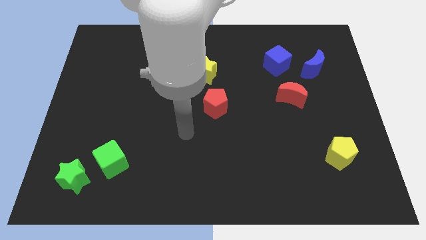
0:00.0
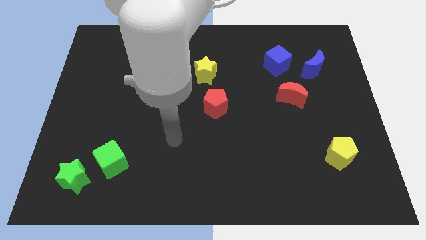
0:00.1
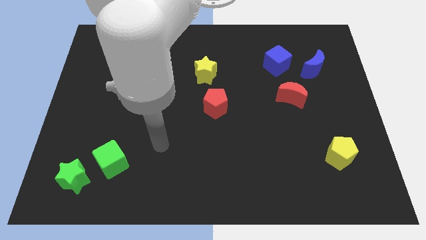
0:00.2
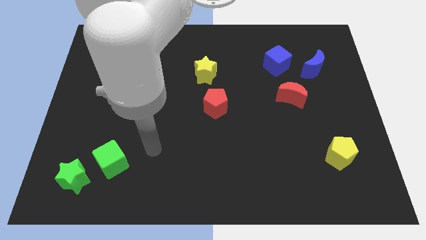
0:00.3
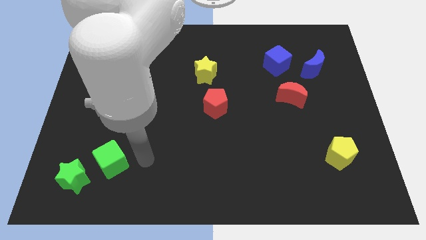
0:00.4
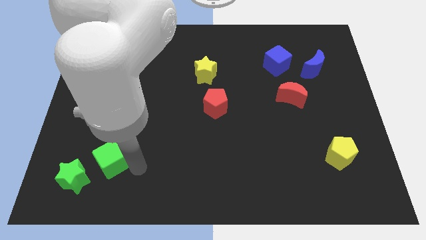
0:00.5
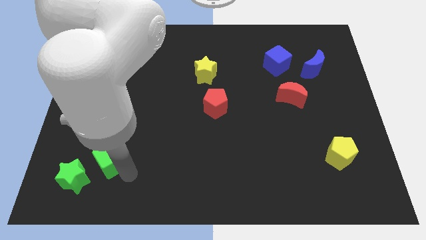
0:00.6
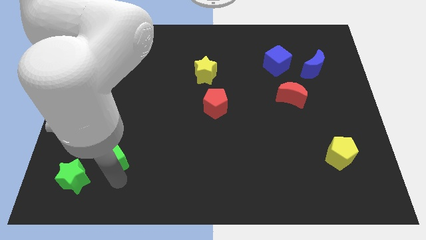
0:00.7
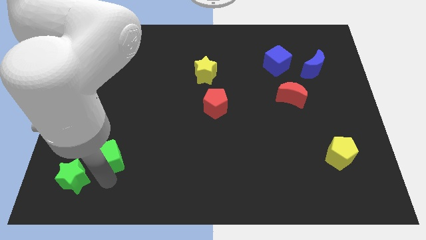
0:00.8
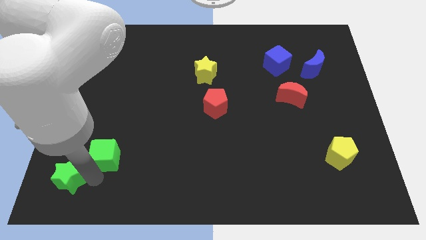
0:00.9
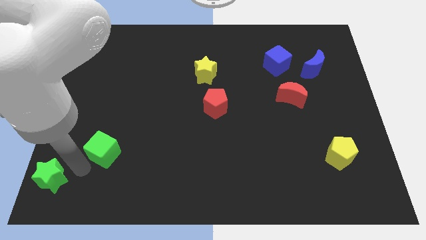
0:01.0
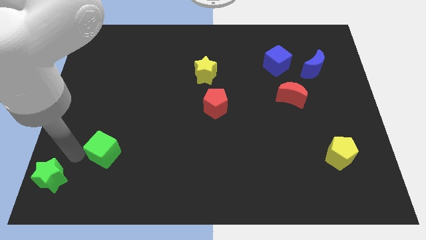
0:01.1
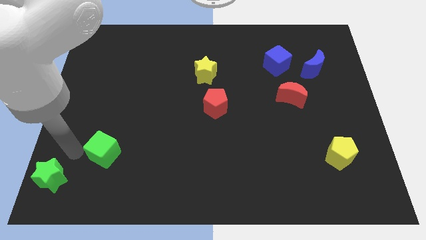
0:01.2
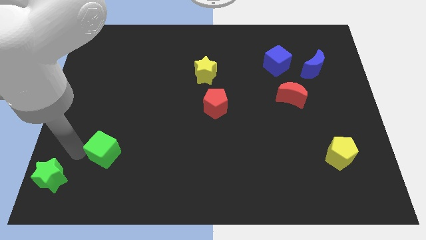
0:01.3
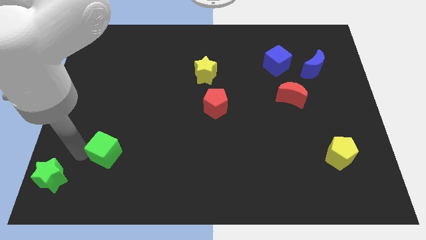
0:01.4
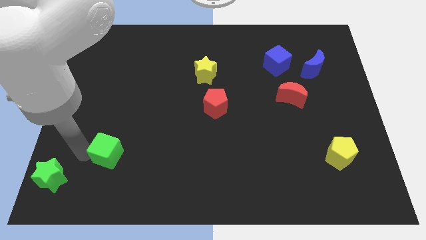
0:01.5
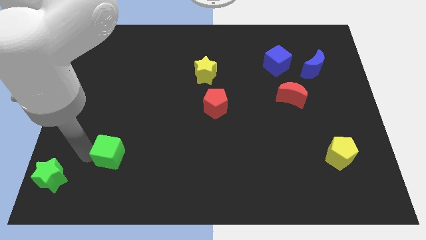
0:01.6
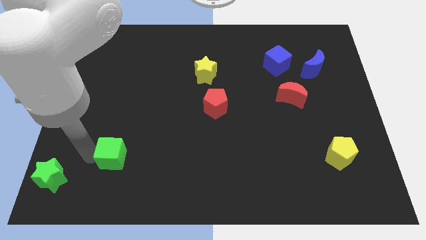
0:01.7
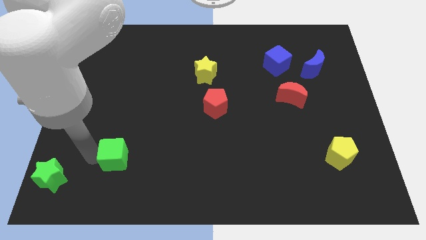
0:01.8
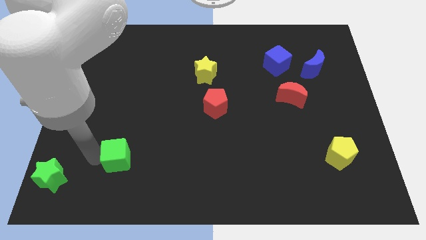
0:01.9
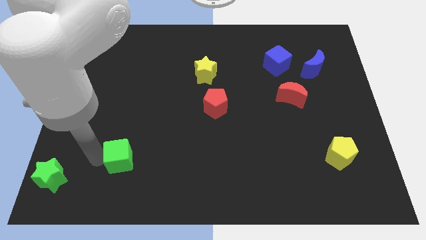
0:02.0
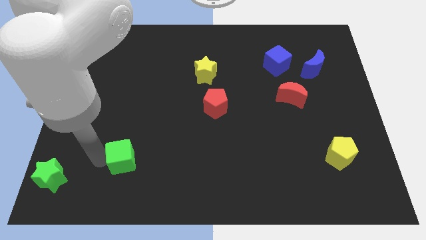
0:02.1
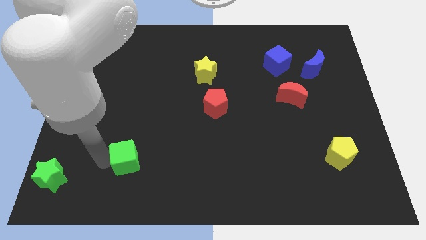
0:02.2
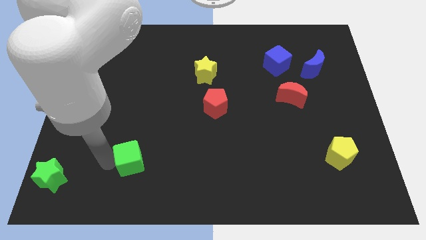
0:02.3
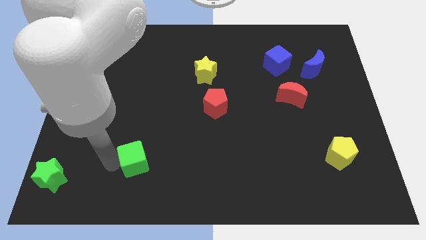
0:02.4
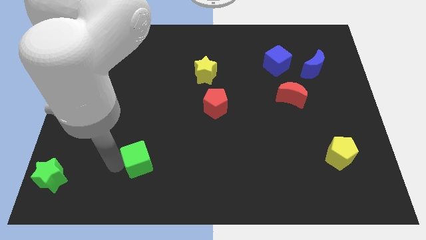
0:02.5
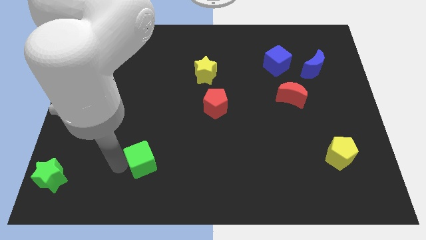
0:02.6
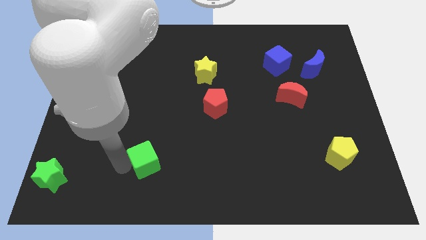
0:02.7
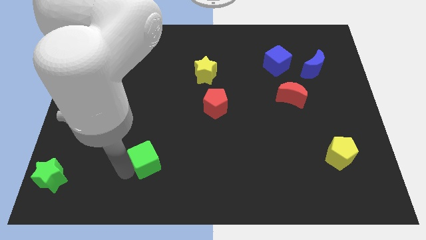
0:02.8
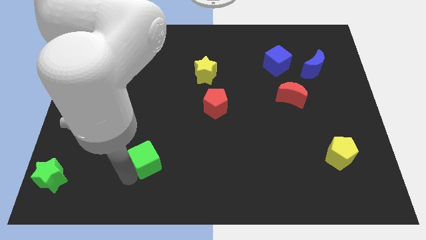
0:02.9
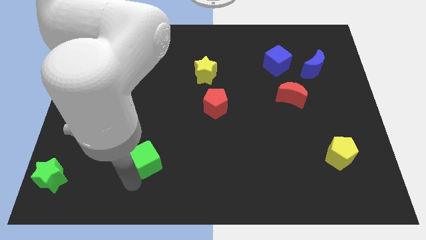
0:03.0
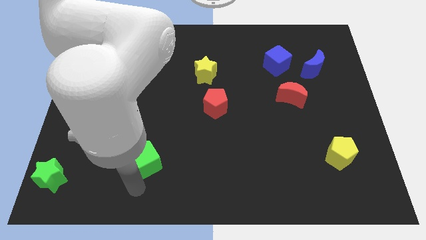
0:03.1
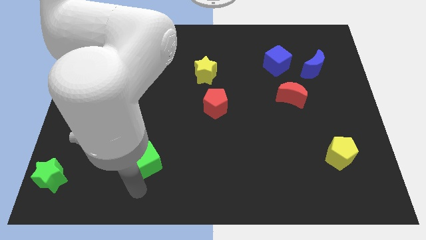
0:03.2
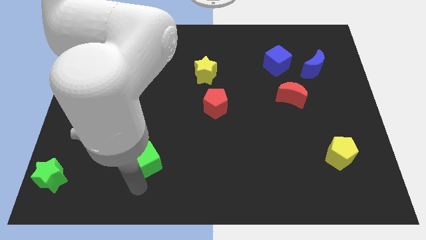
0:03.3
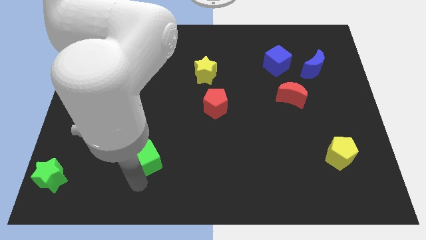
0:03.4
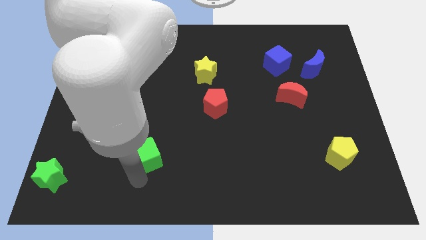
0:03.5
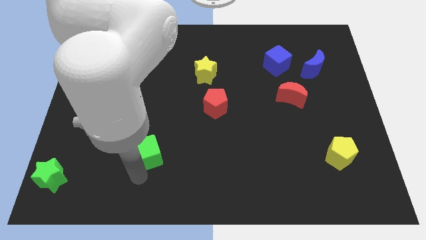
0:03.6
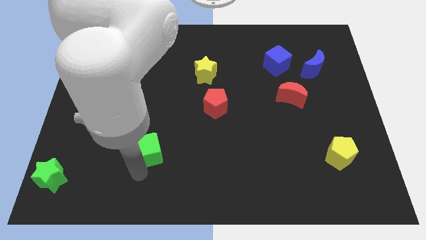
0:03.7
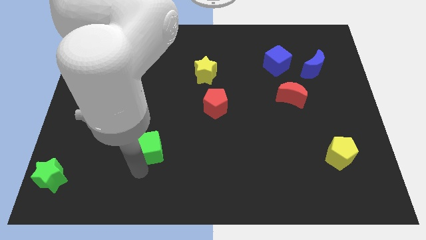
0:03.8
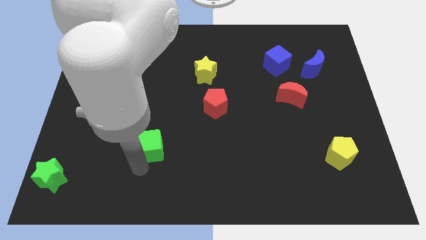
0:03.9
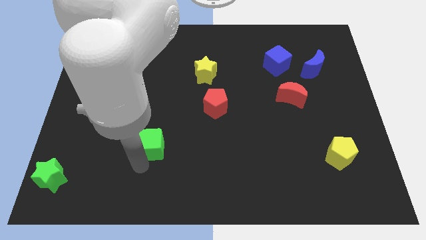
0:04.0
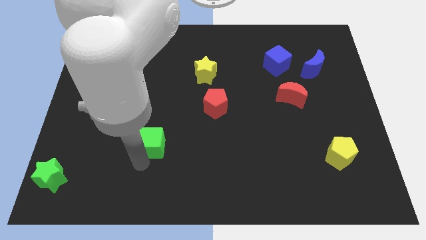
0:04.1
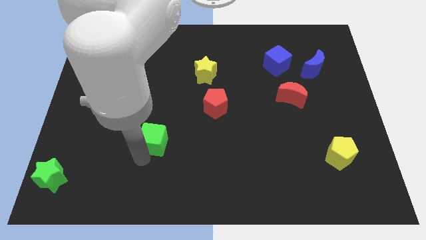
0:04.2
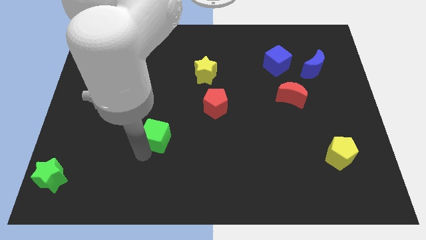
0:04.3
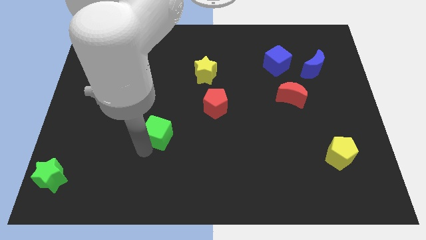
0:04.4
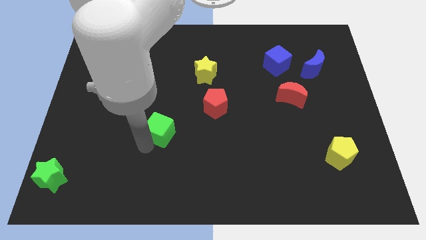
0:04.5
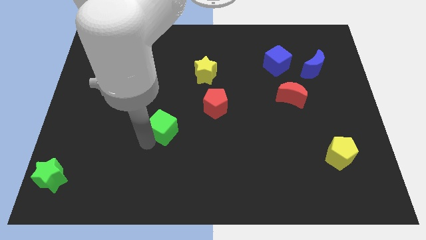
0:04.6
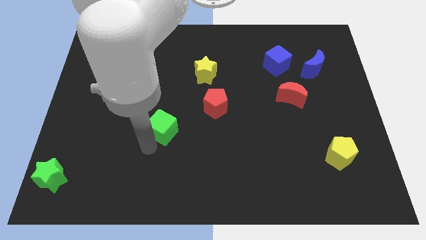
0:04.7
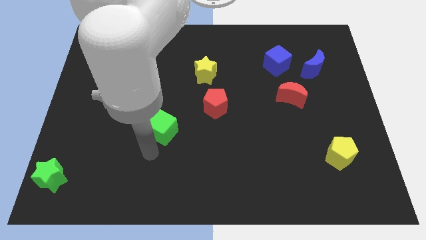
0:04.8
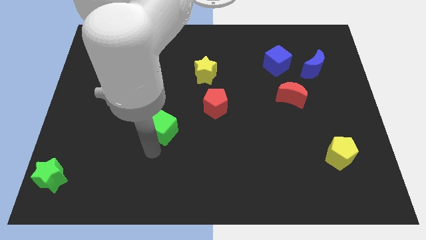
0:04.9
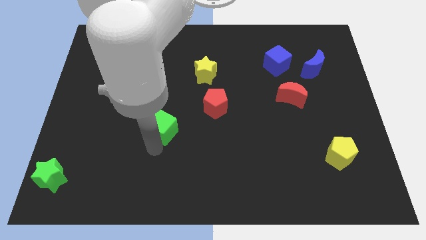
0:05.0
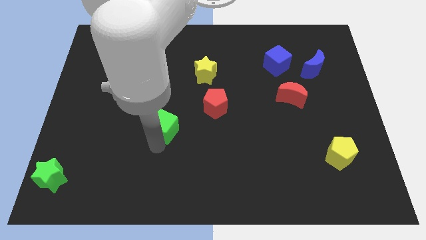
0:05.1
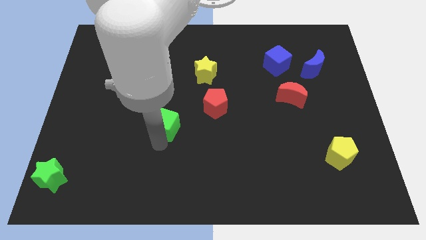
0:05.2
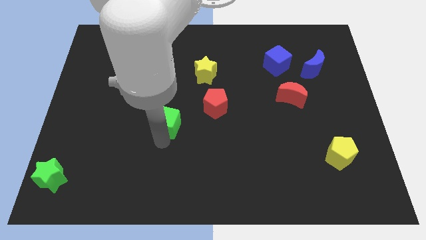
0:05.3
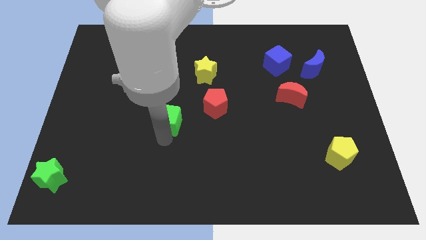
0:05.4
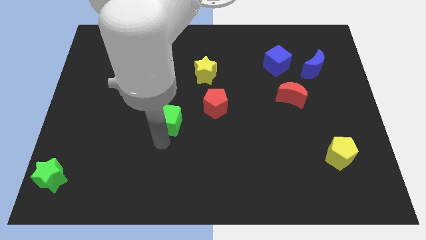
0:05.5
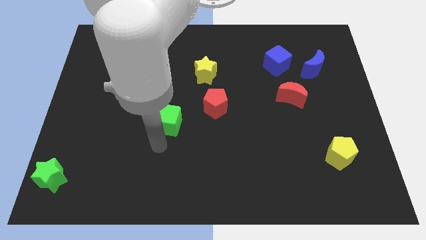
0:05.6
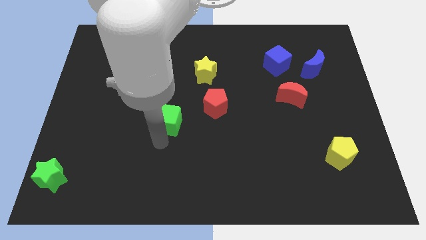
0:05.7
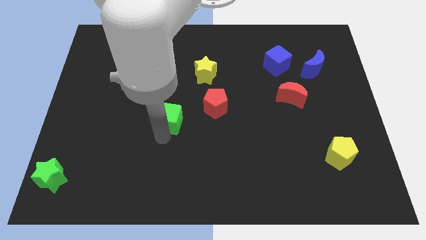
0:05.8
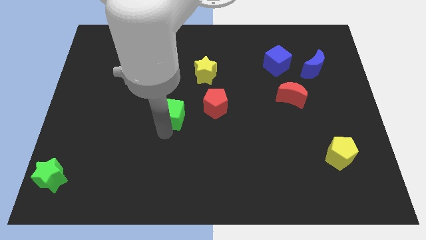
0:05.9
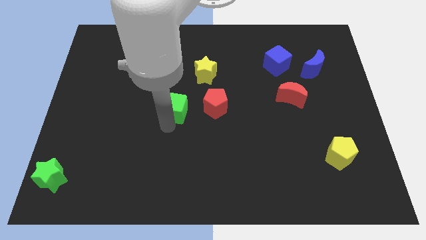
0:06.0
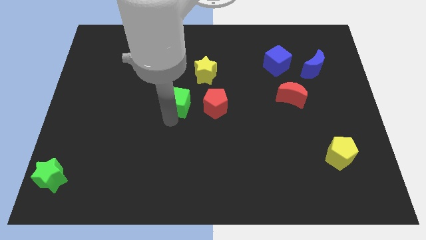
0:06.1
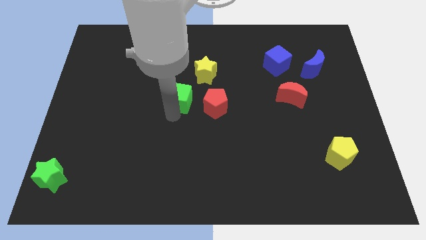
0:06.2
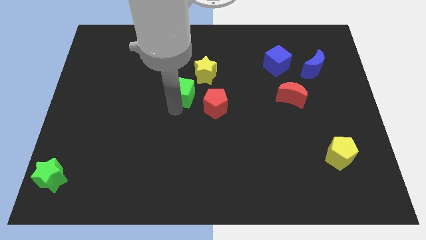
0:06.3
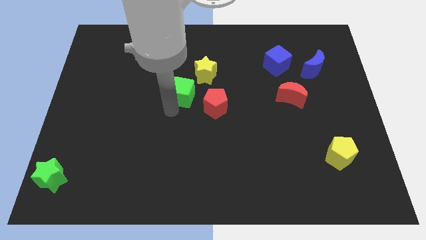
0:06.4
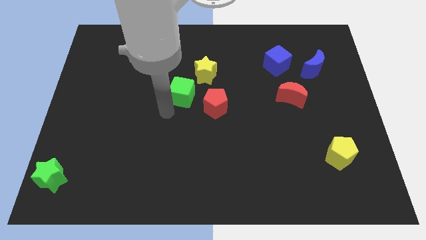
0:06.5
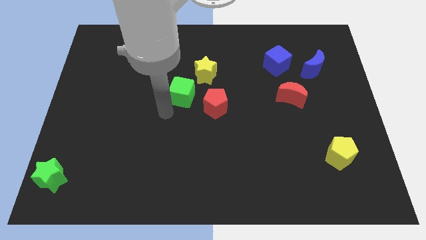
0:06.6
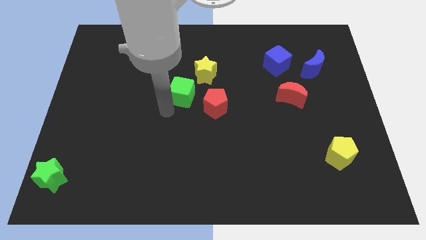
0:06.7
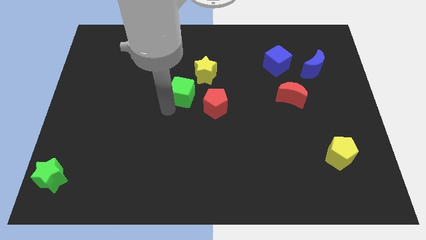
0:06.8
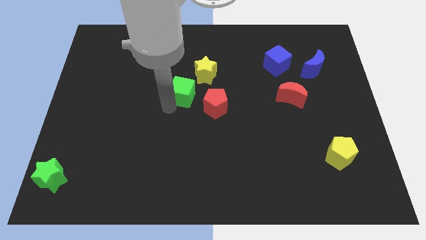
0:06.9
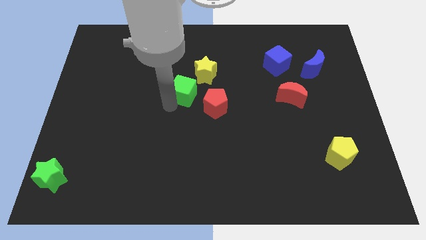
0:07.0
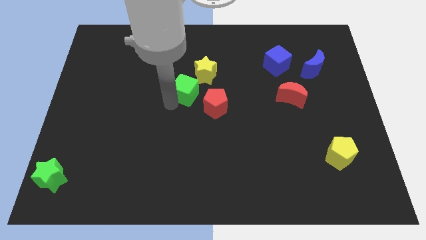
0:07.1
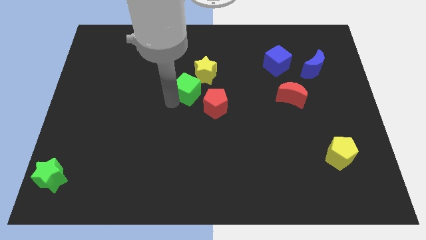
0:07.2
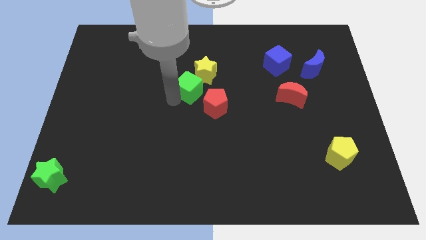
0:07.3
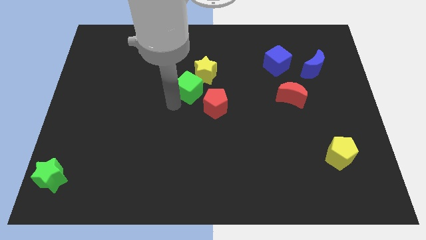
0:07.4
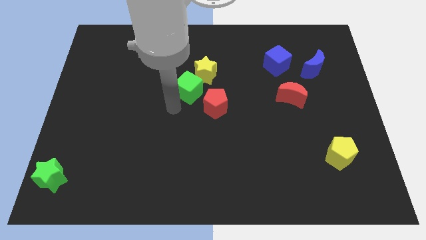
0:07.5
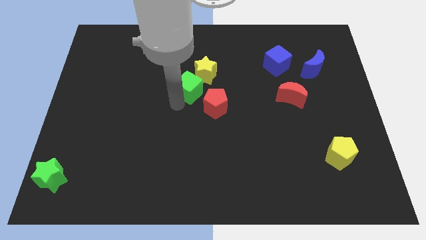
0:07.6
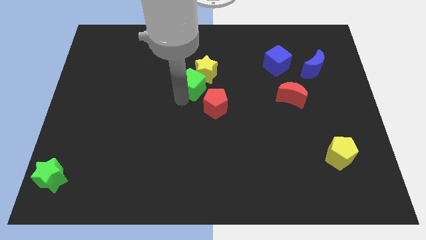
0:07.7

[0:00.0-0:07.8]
push the green cube next to the yellow star
